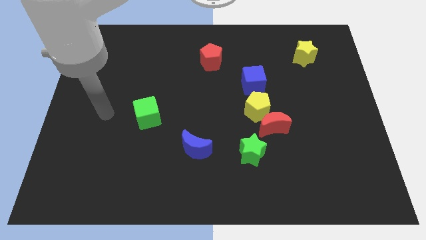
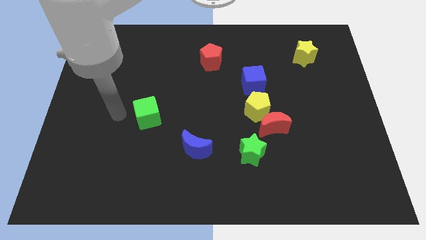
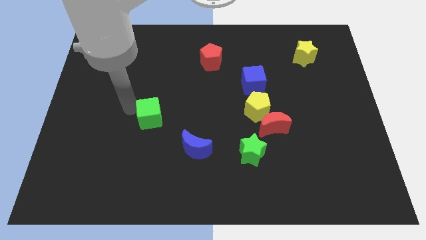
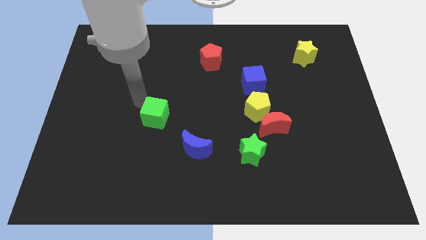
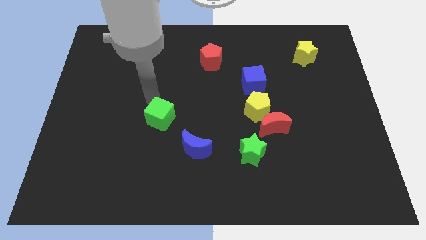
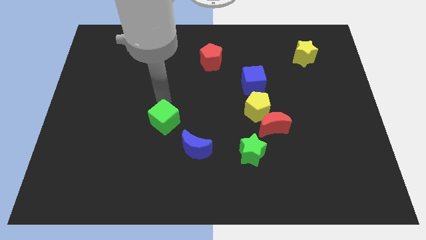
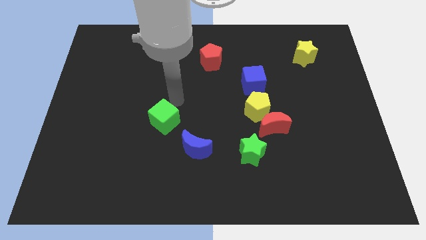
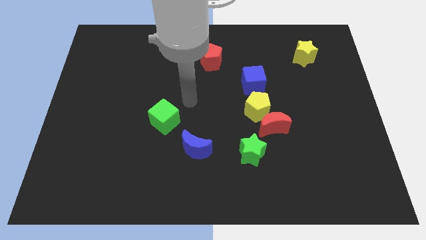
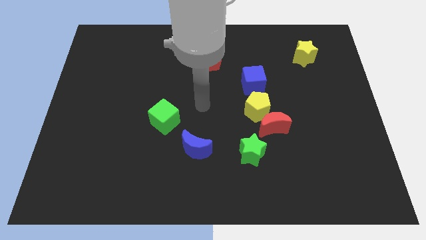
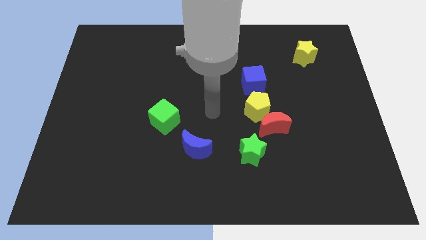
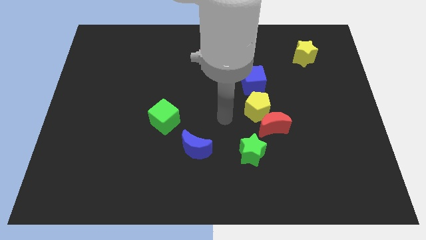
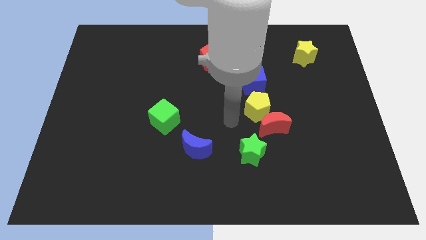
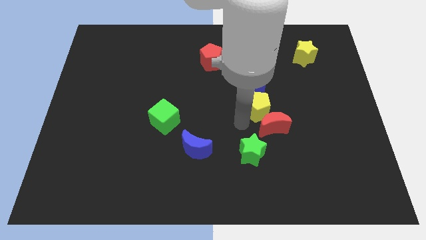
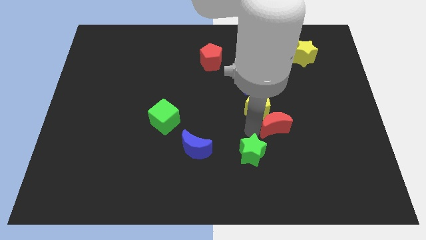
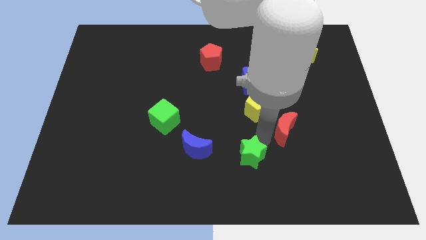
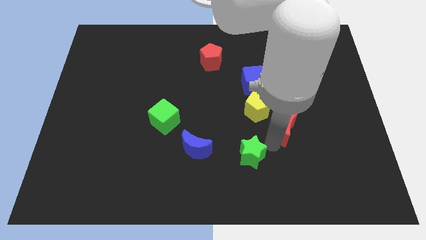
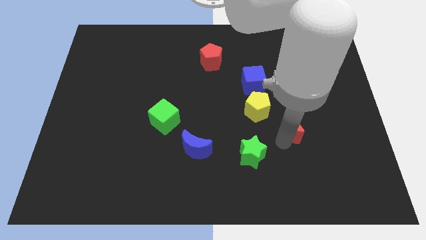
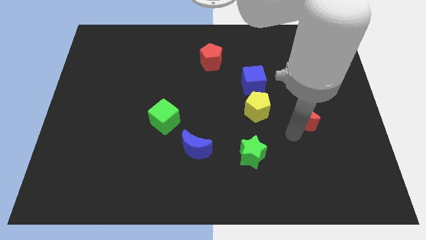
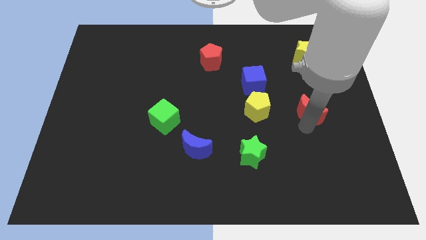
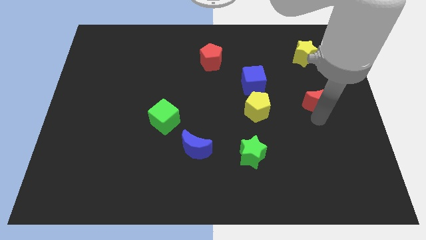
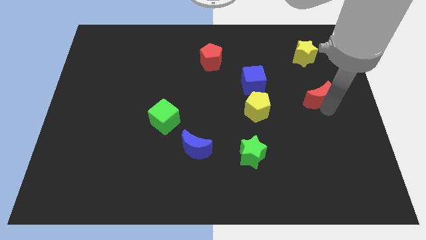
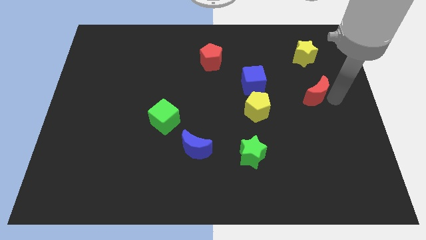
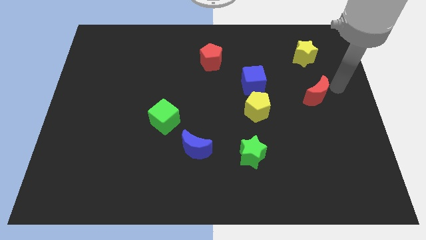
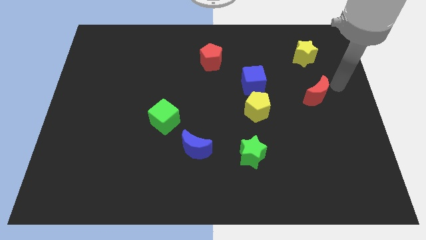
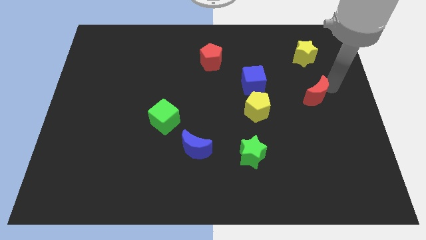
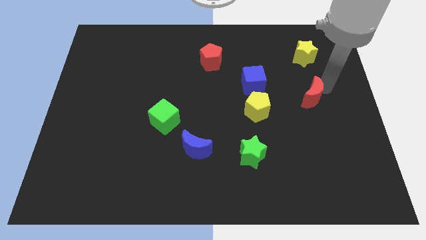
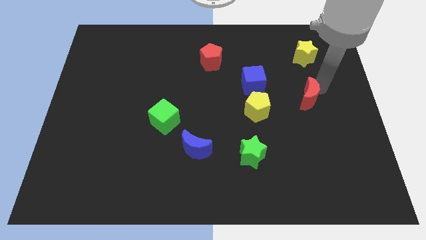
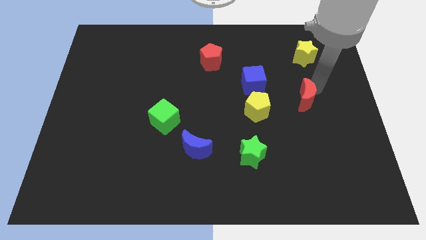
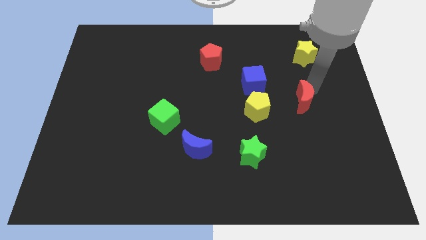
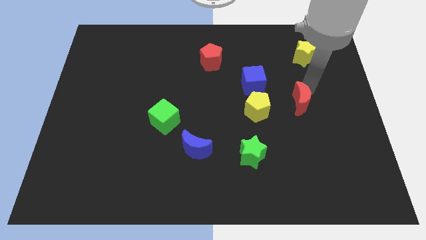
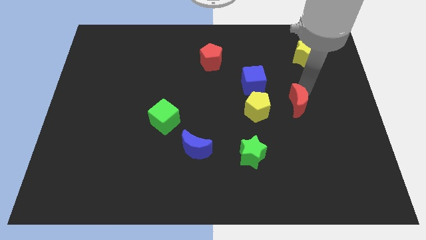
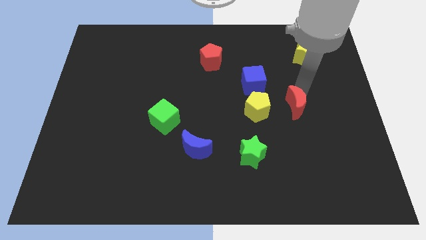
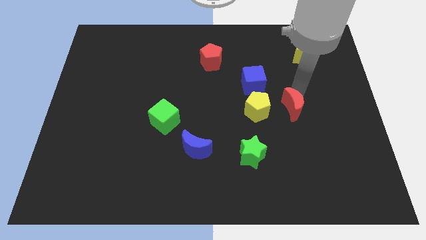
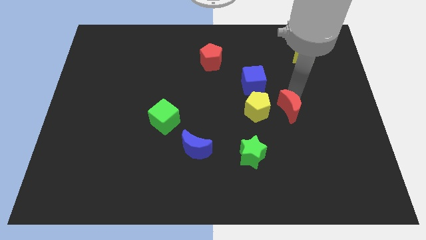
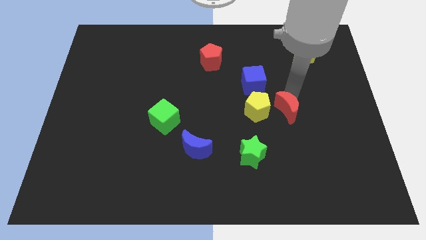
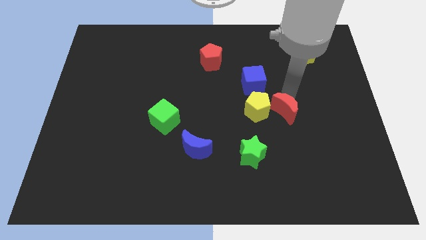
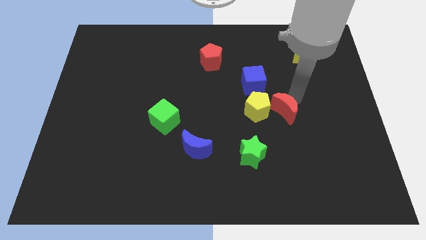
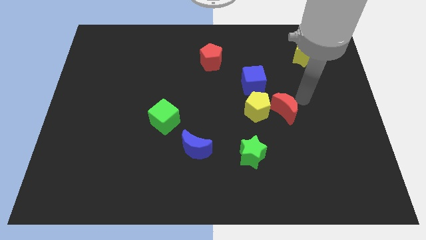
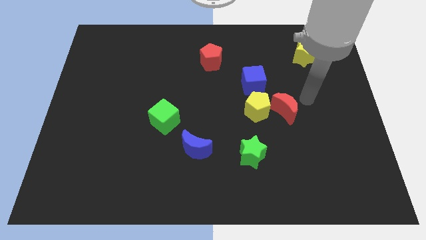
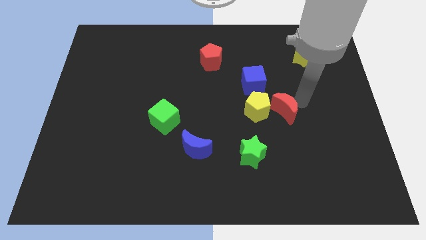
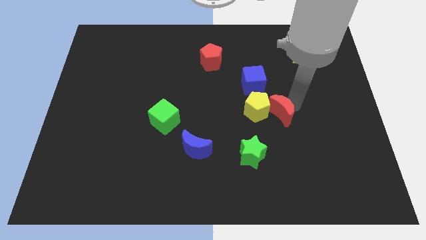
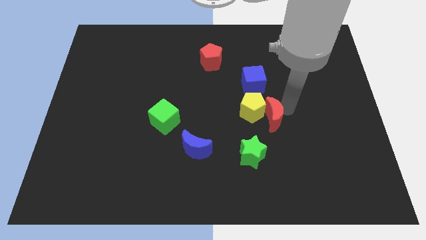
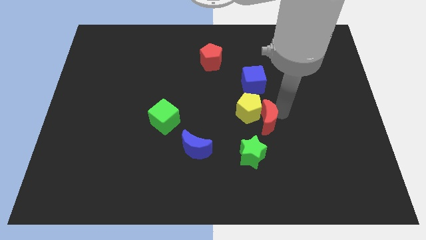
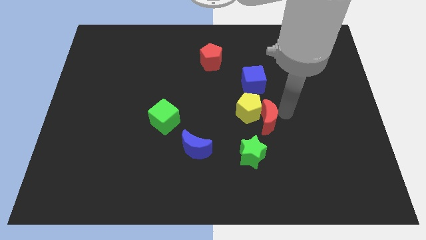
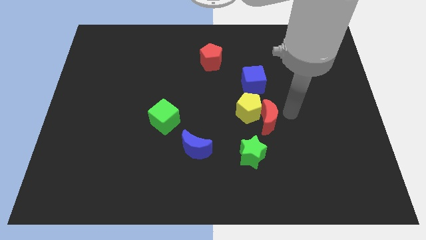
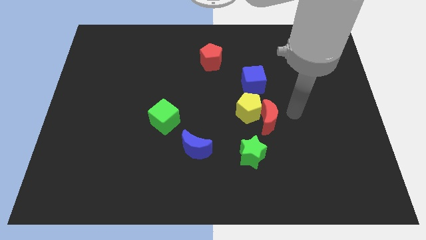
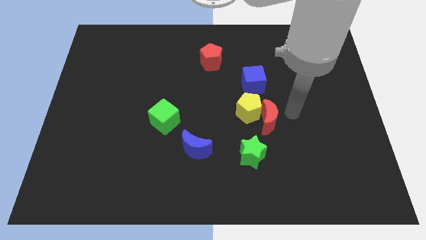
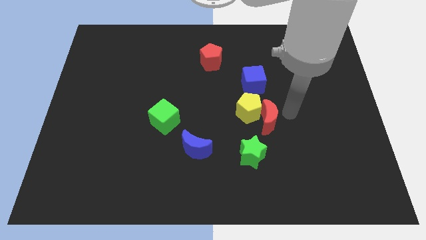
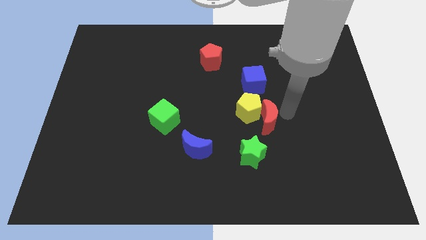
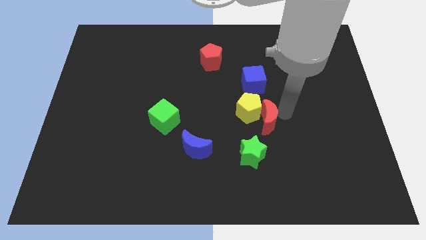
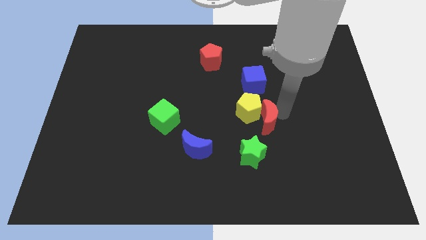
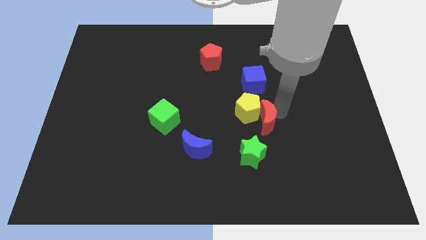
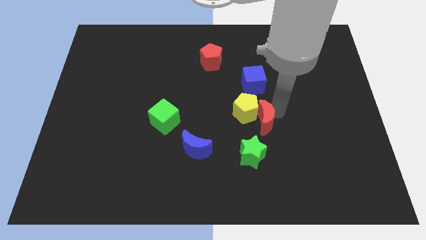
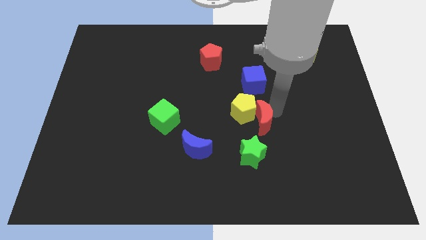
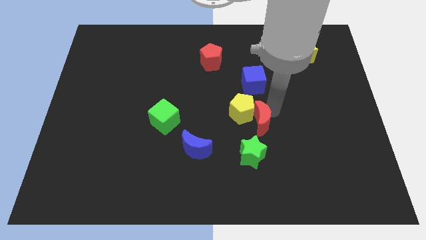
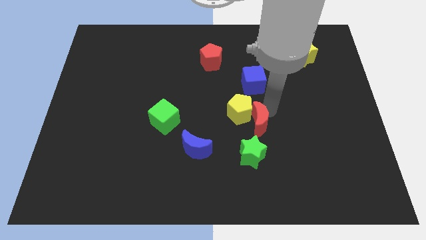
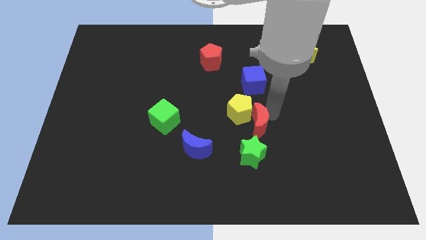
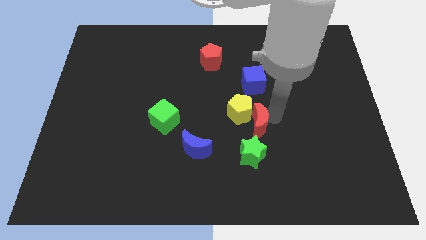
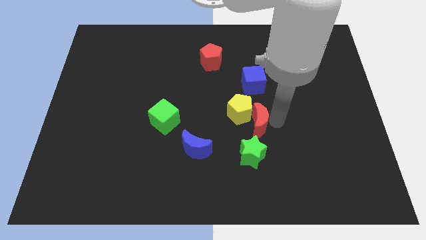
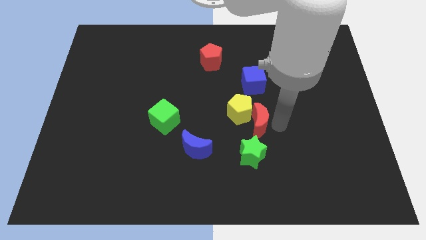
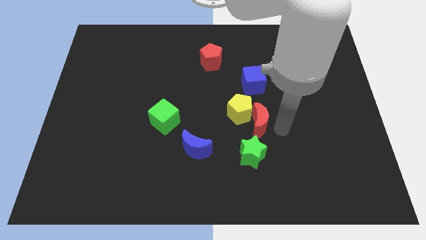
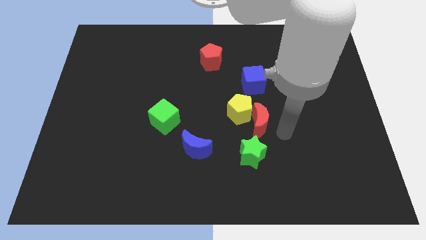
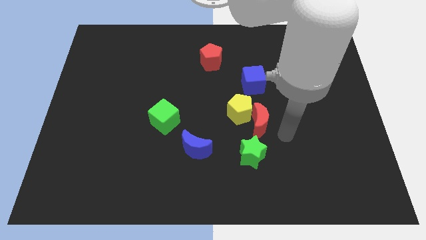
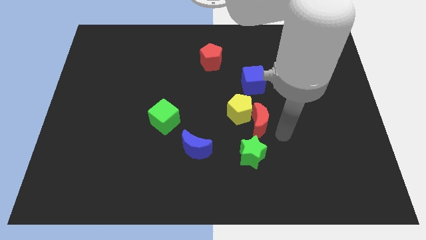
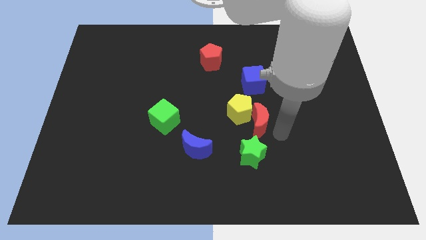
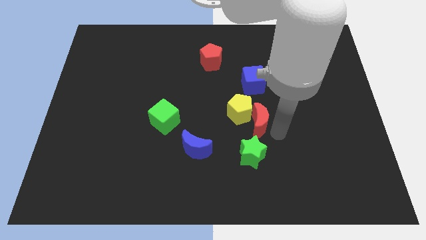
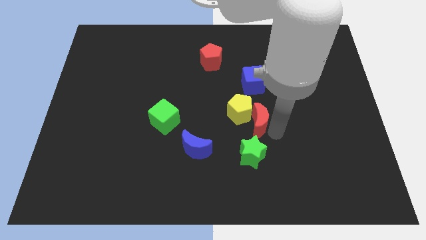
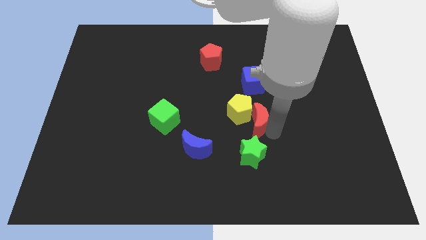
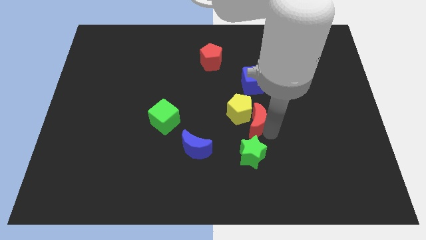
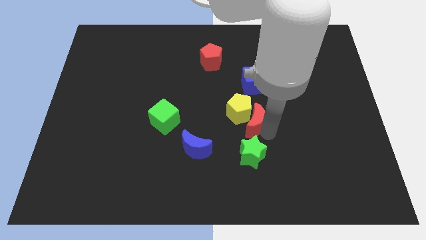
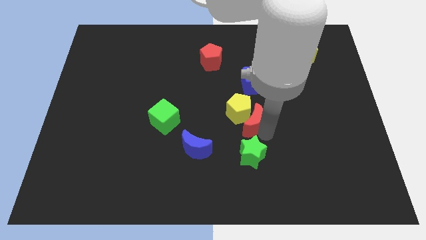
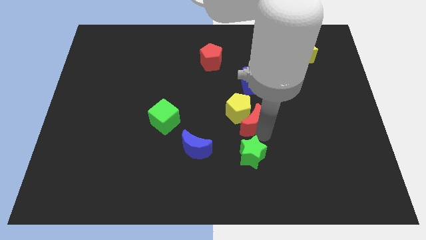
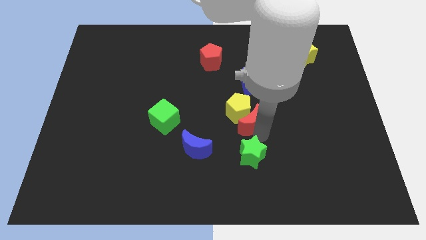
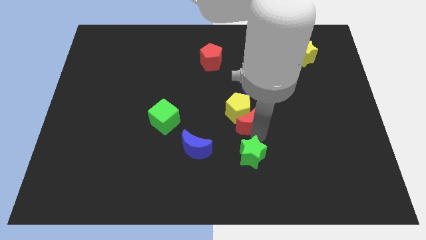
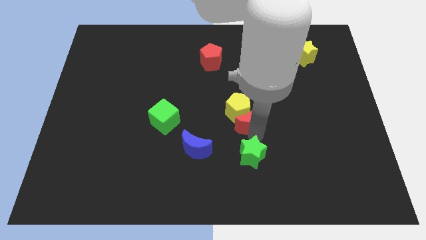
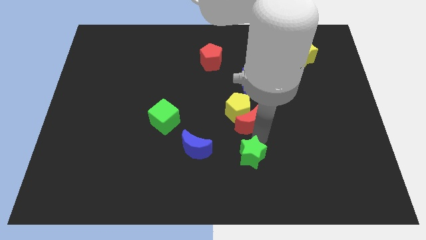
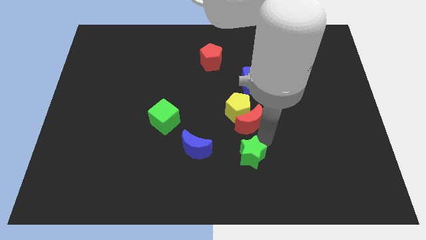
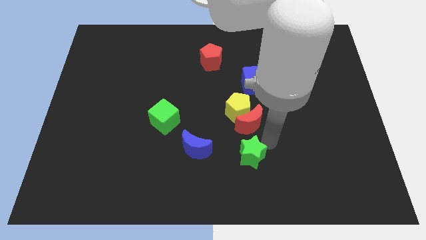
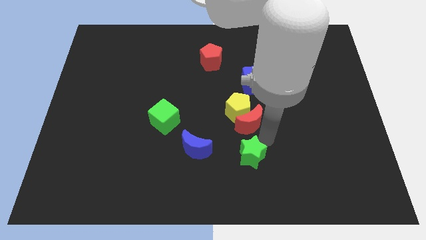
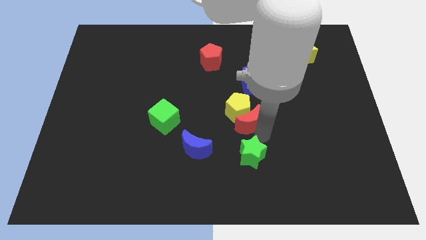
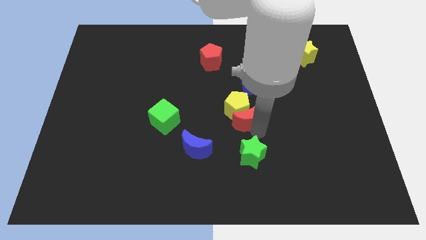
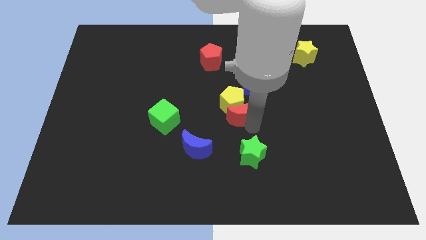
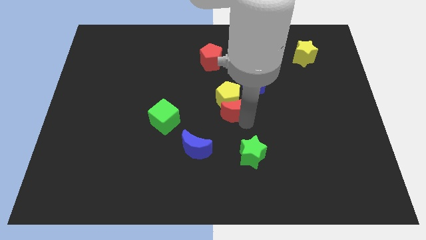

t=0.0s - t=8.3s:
push the red moon to the bottom left side of the blue cube
